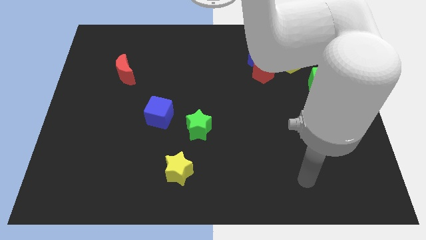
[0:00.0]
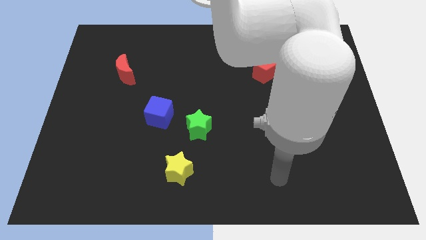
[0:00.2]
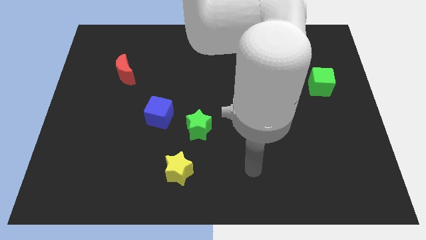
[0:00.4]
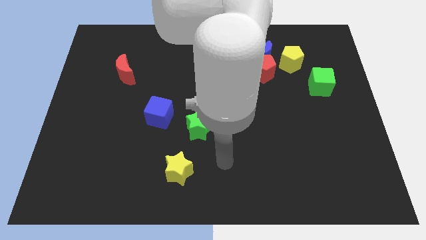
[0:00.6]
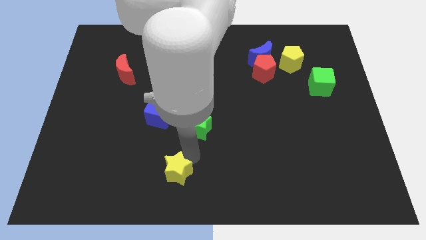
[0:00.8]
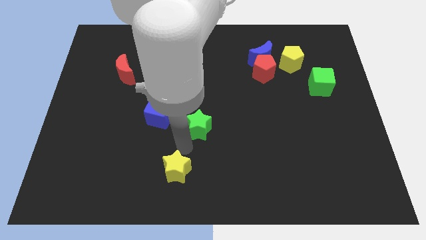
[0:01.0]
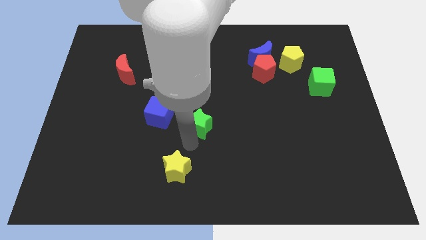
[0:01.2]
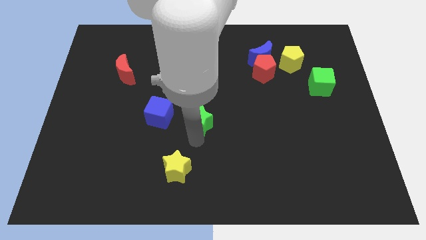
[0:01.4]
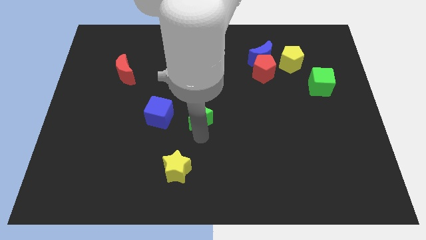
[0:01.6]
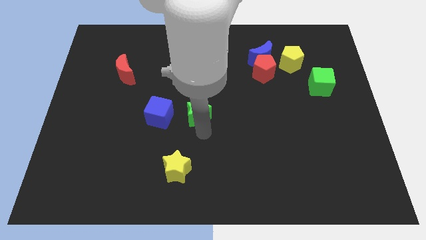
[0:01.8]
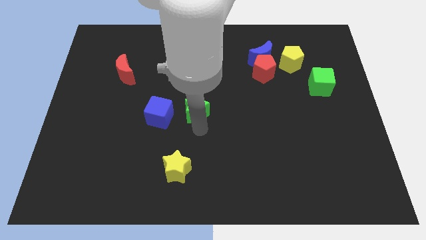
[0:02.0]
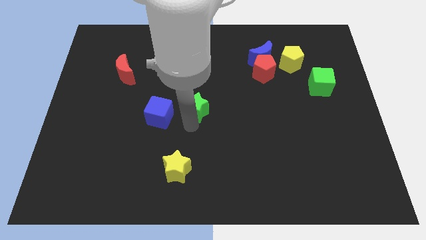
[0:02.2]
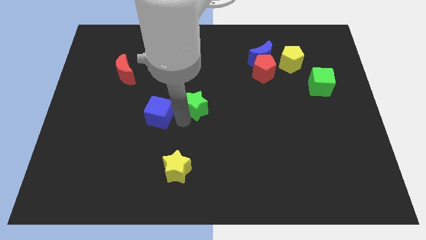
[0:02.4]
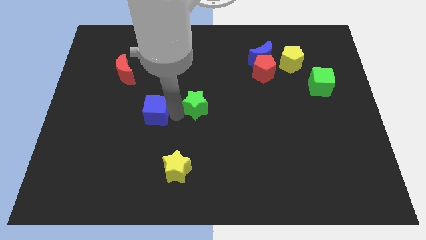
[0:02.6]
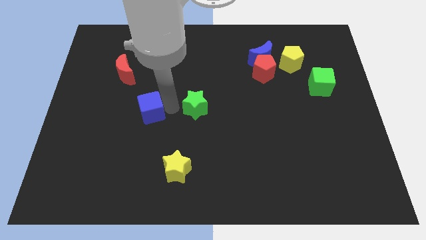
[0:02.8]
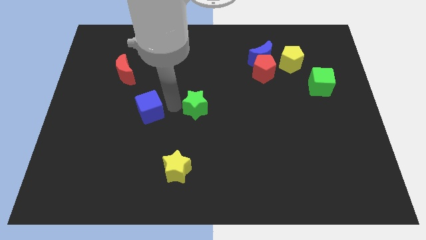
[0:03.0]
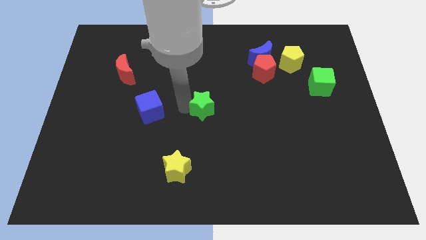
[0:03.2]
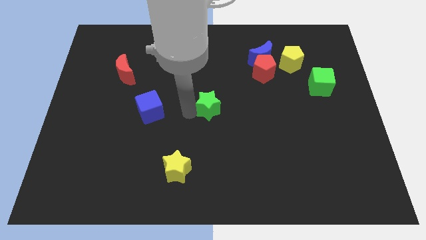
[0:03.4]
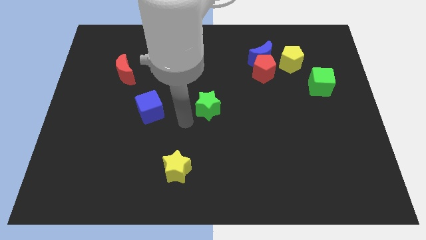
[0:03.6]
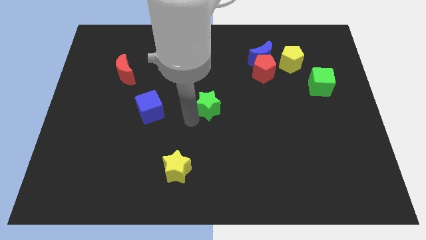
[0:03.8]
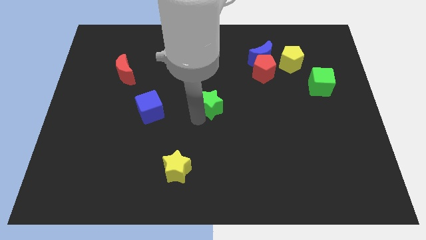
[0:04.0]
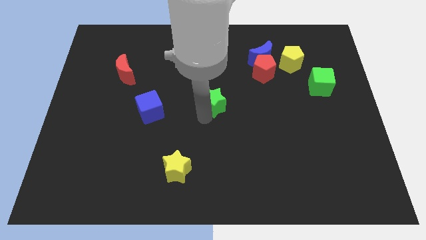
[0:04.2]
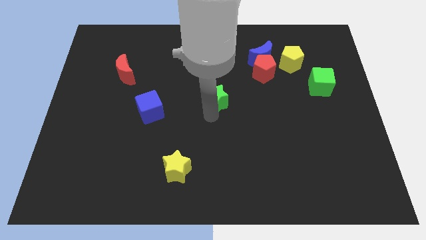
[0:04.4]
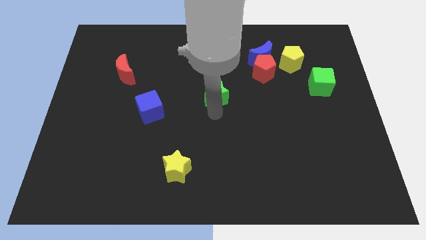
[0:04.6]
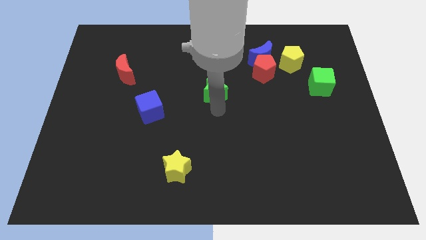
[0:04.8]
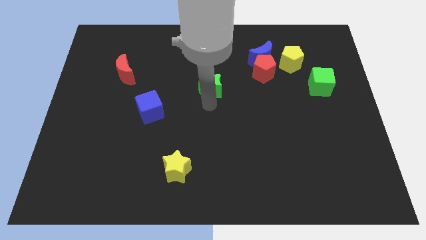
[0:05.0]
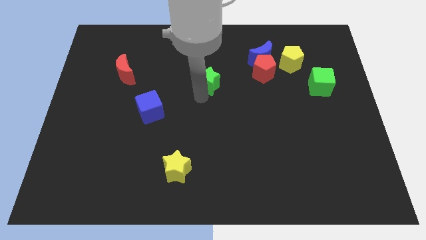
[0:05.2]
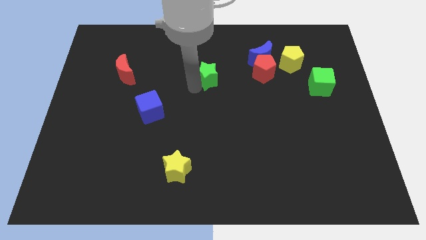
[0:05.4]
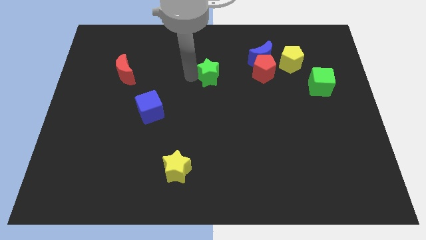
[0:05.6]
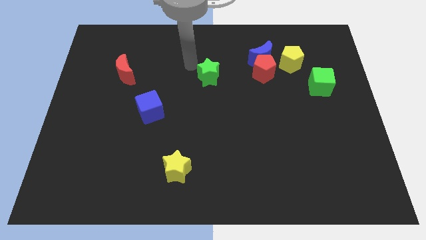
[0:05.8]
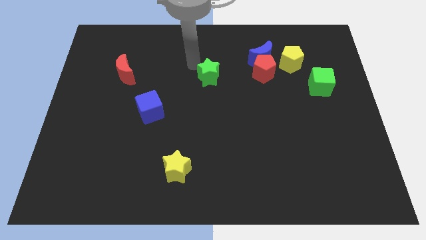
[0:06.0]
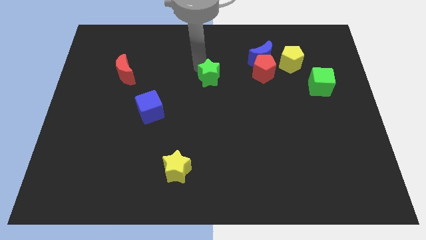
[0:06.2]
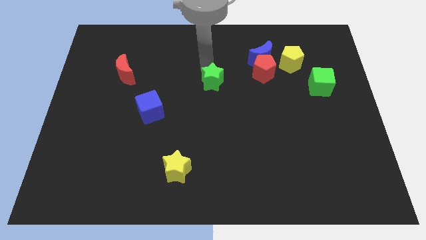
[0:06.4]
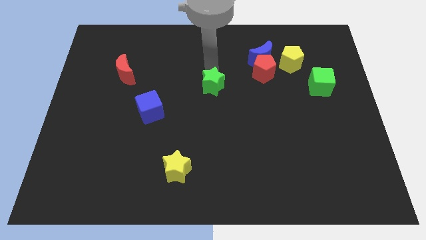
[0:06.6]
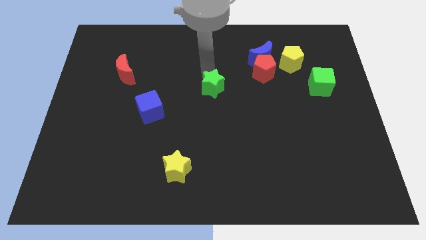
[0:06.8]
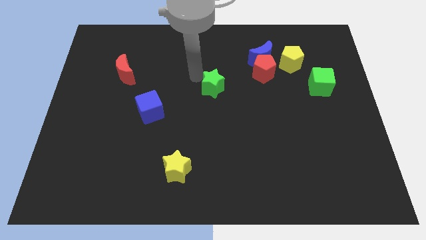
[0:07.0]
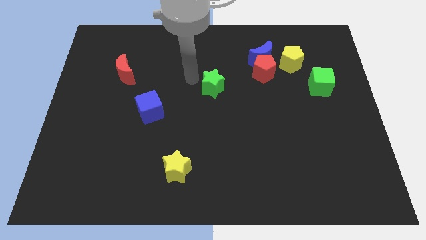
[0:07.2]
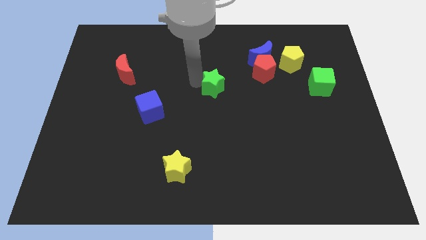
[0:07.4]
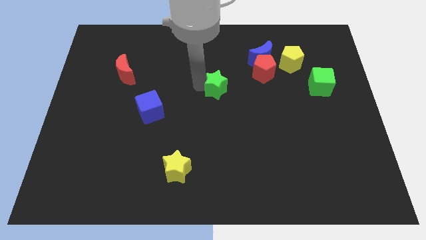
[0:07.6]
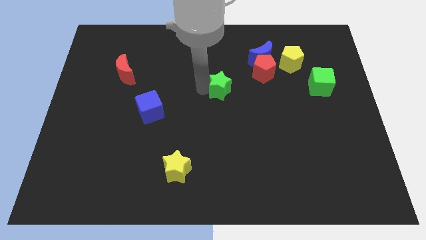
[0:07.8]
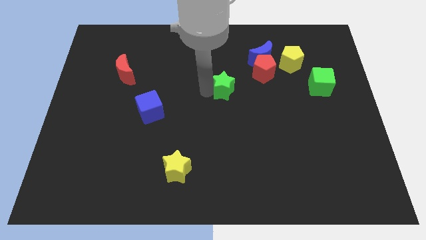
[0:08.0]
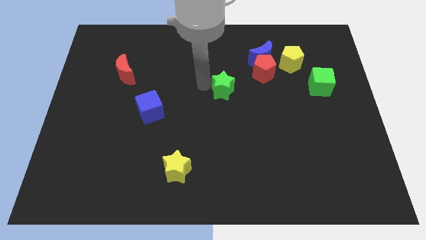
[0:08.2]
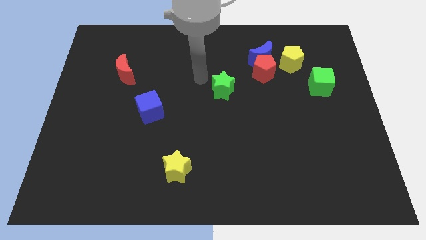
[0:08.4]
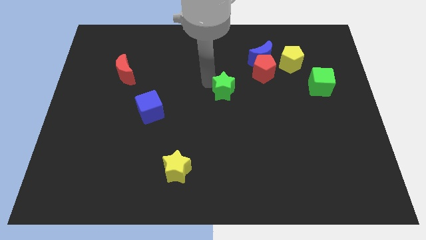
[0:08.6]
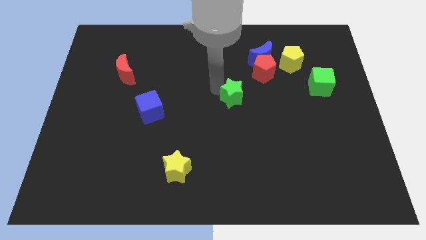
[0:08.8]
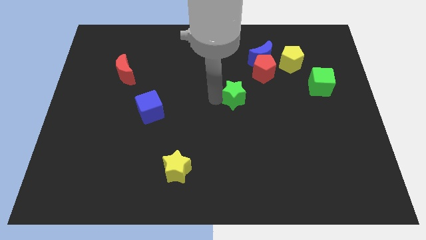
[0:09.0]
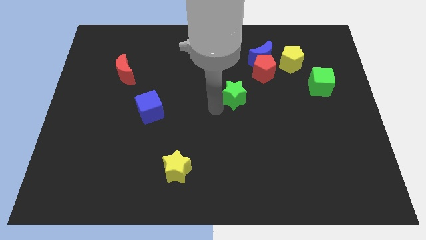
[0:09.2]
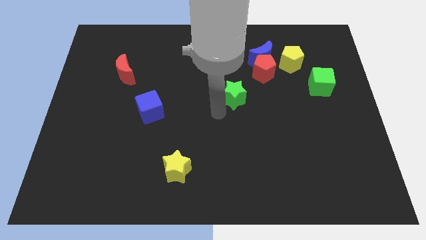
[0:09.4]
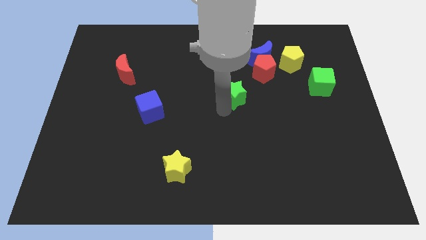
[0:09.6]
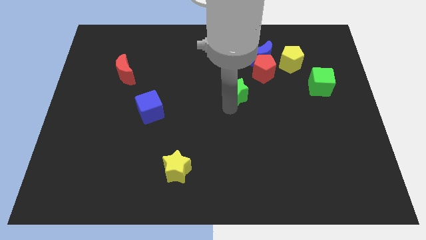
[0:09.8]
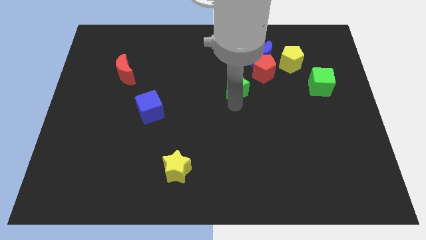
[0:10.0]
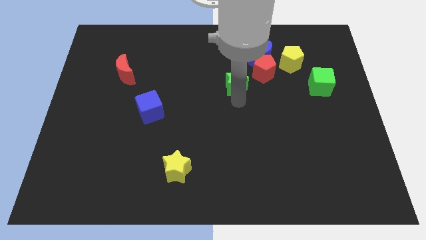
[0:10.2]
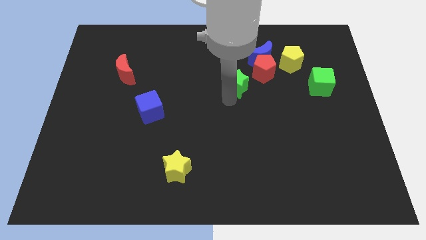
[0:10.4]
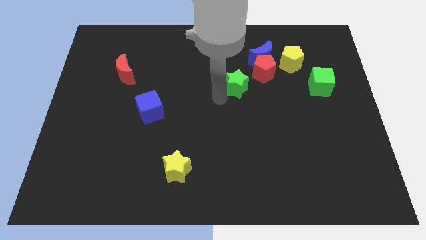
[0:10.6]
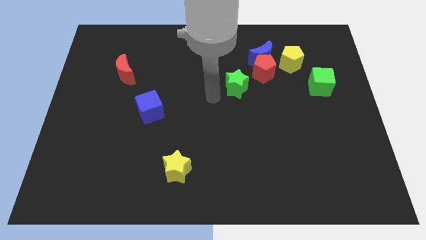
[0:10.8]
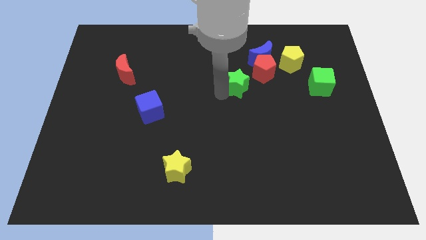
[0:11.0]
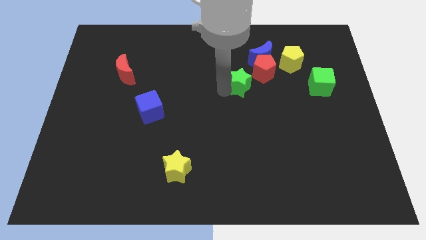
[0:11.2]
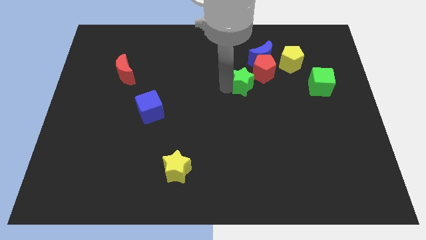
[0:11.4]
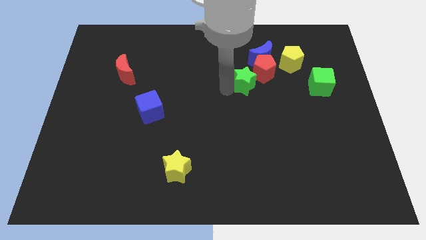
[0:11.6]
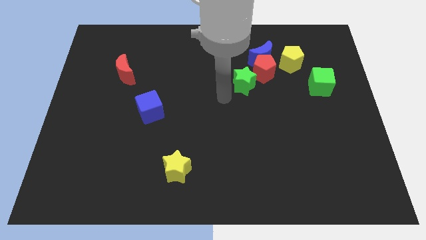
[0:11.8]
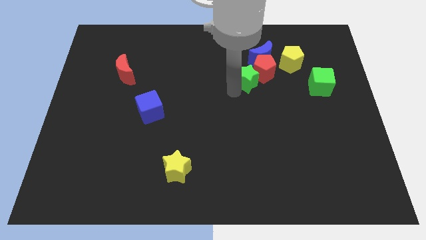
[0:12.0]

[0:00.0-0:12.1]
push the green star close to the red pentagon

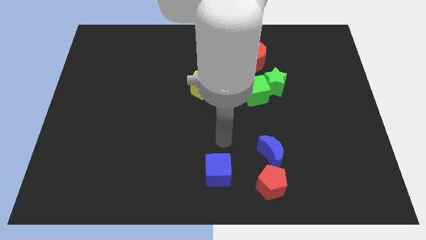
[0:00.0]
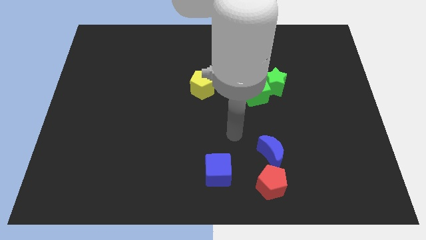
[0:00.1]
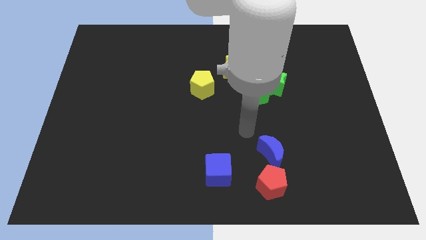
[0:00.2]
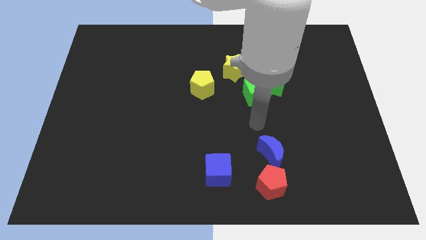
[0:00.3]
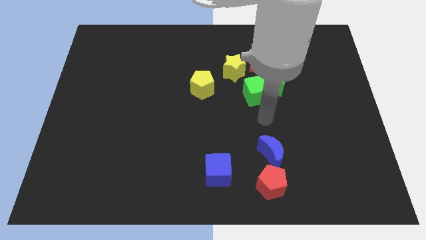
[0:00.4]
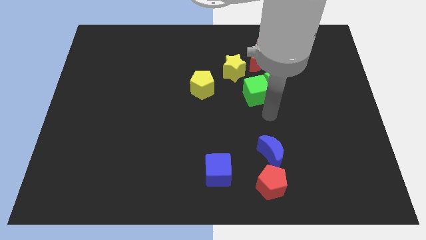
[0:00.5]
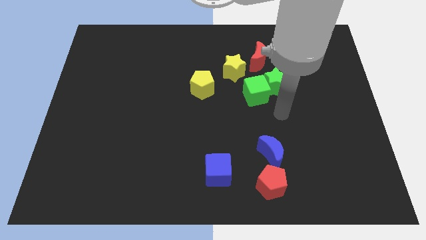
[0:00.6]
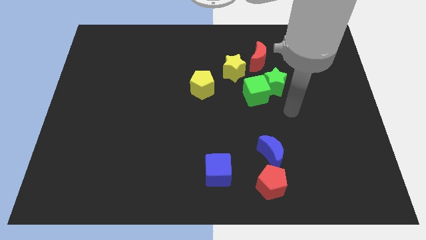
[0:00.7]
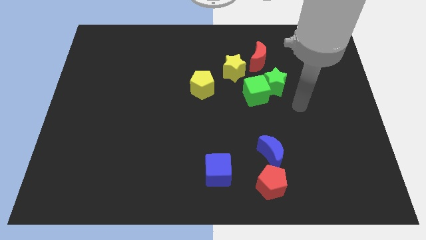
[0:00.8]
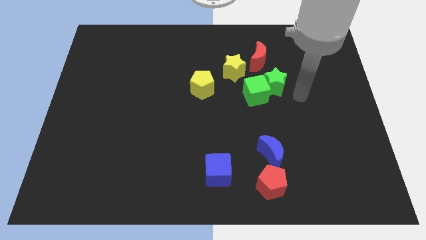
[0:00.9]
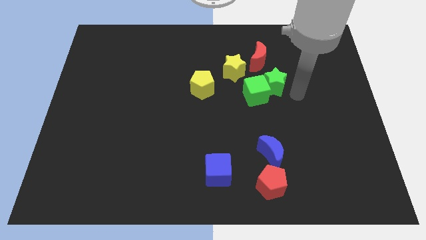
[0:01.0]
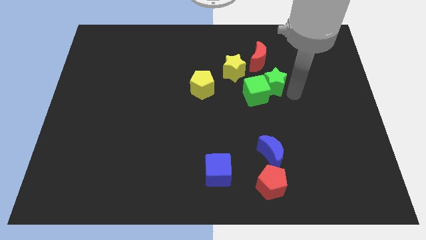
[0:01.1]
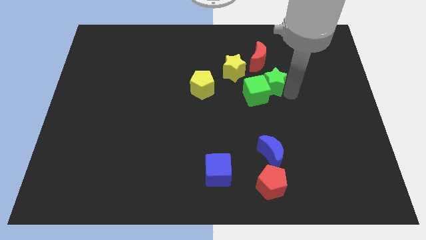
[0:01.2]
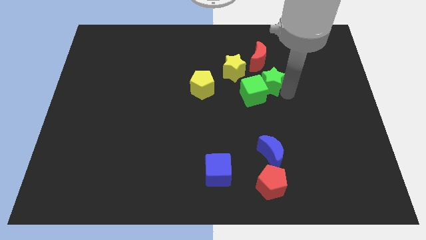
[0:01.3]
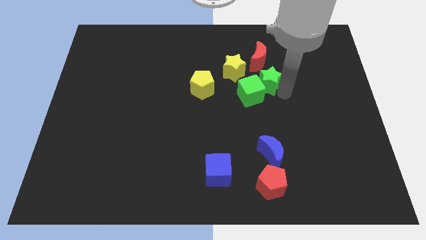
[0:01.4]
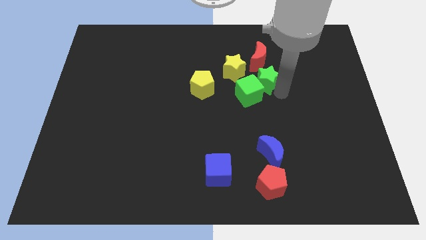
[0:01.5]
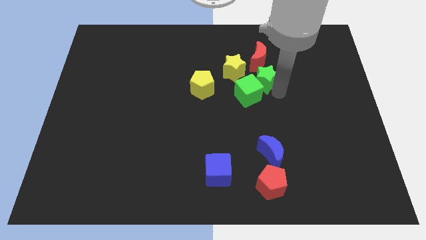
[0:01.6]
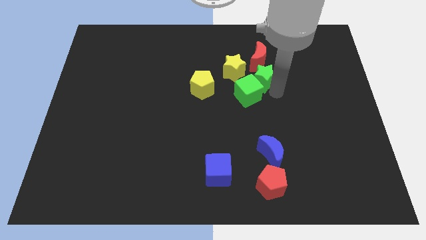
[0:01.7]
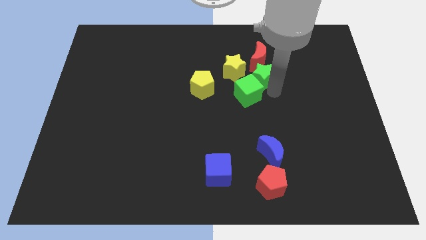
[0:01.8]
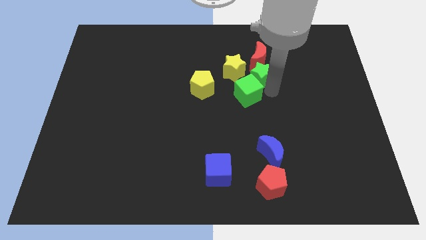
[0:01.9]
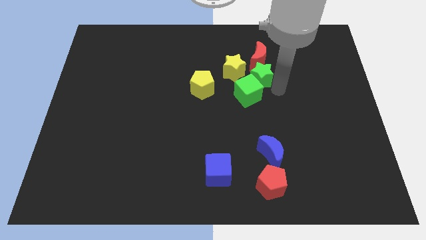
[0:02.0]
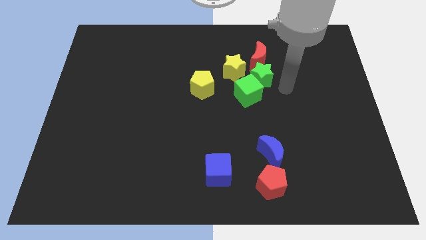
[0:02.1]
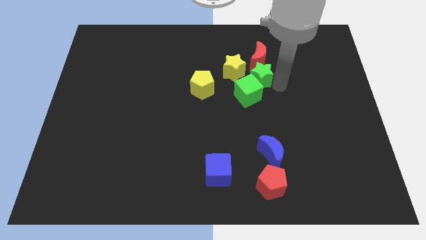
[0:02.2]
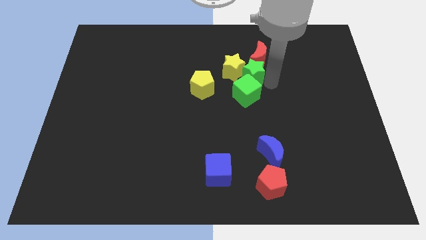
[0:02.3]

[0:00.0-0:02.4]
put the green star to the yellow star
